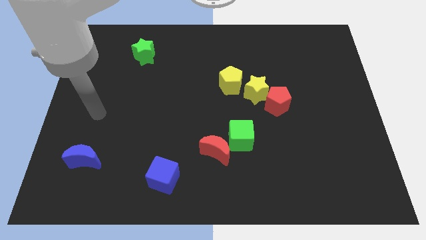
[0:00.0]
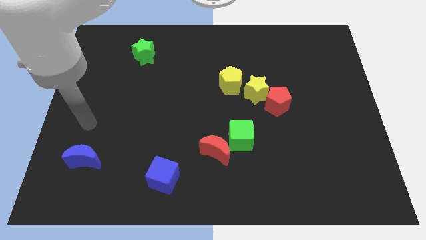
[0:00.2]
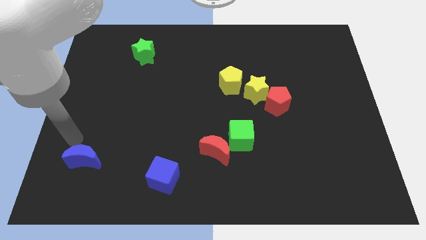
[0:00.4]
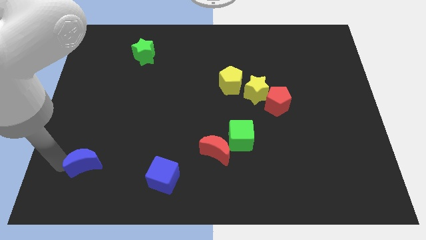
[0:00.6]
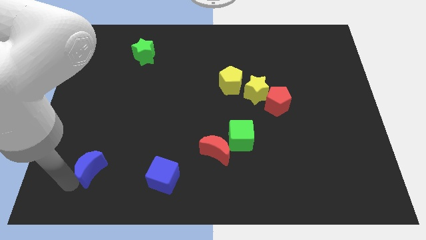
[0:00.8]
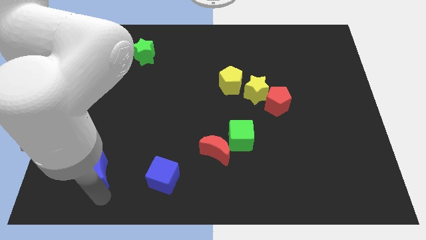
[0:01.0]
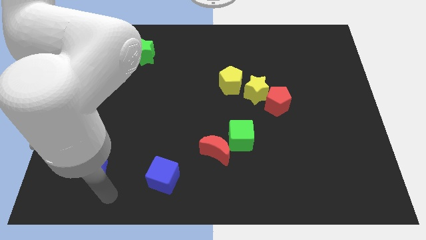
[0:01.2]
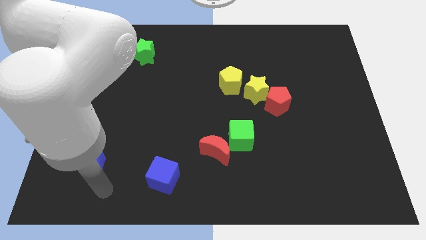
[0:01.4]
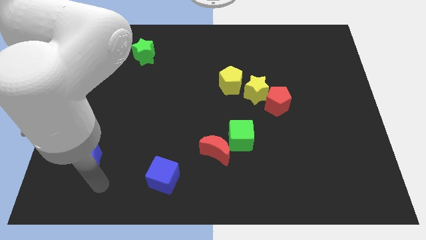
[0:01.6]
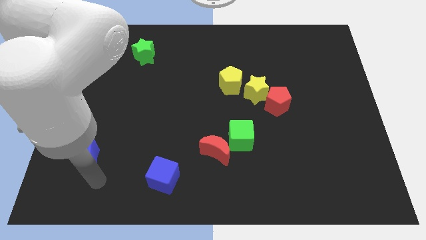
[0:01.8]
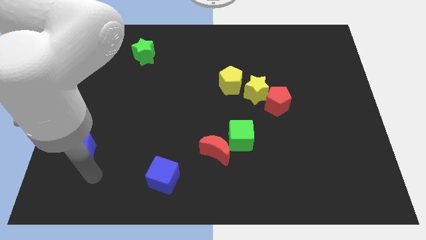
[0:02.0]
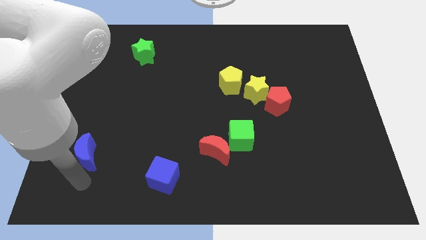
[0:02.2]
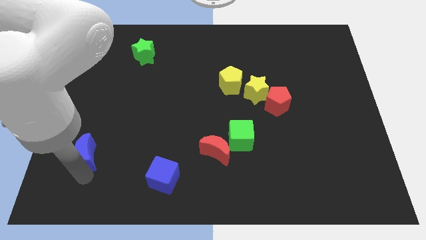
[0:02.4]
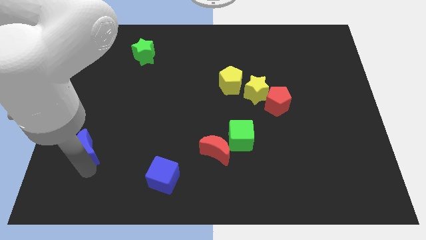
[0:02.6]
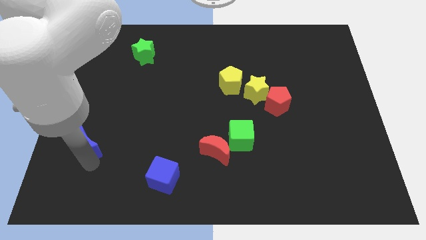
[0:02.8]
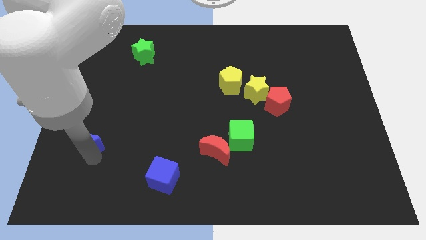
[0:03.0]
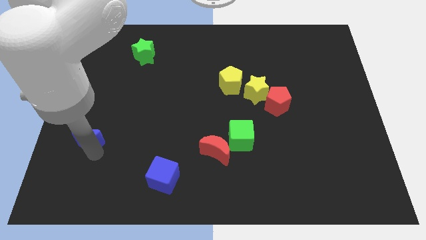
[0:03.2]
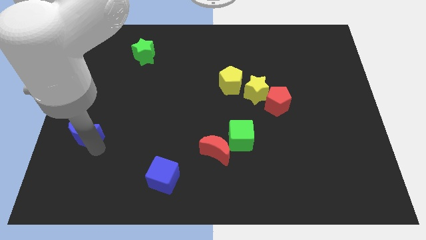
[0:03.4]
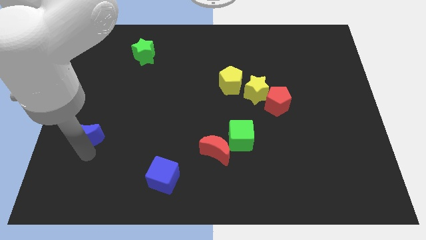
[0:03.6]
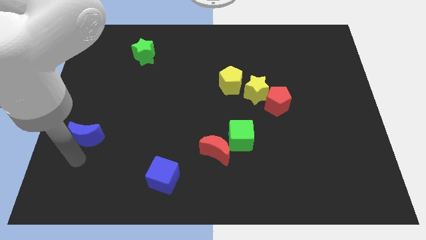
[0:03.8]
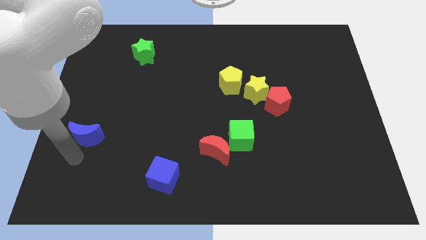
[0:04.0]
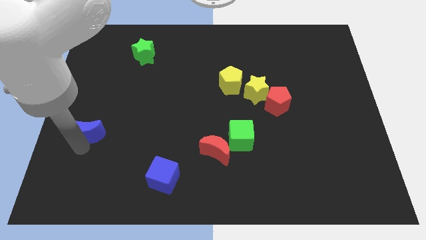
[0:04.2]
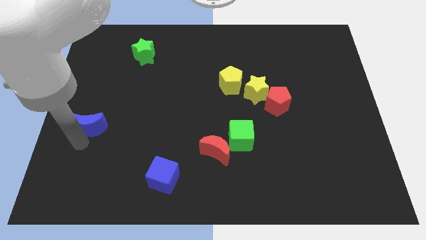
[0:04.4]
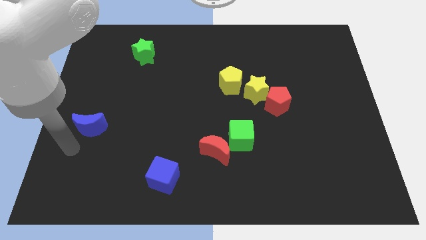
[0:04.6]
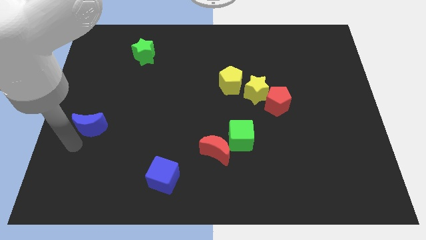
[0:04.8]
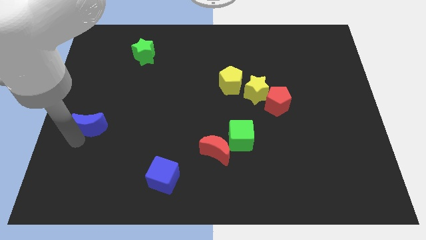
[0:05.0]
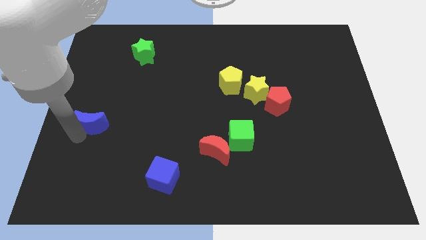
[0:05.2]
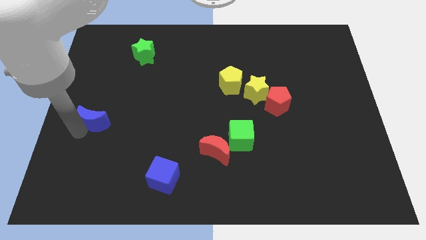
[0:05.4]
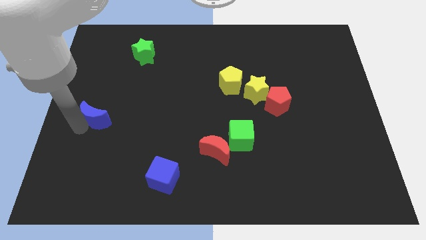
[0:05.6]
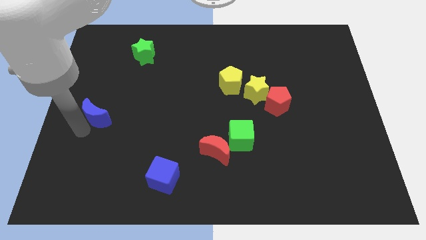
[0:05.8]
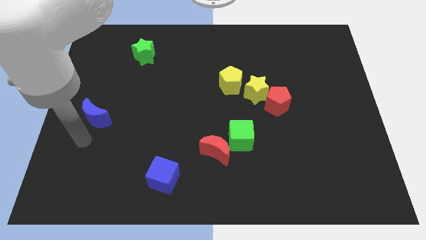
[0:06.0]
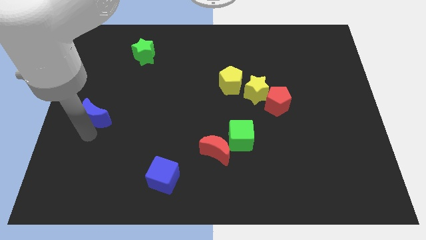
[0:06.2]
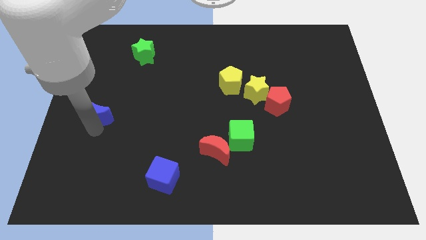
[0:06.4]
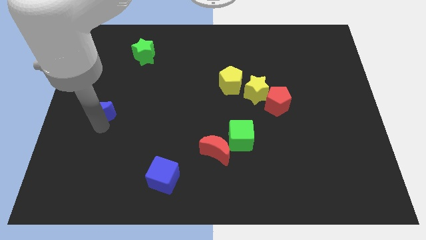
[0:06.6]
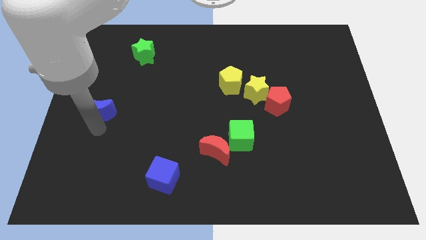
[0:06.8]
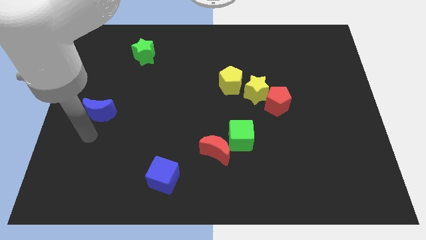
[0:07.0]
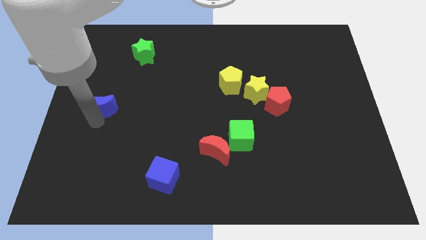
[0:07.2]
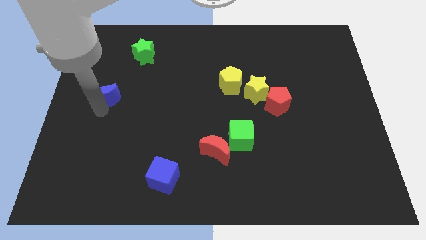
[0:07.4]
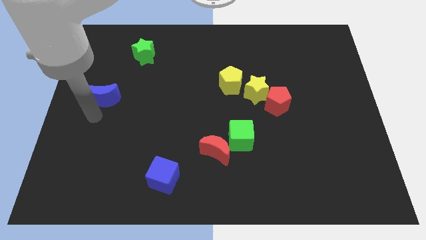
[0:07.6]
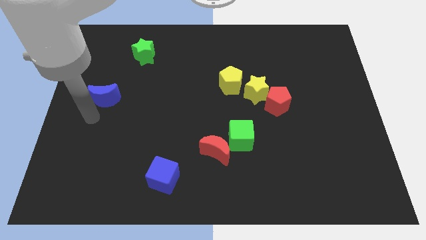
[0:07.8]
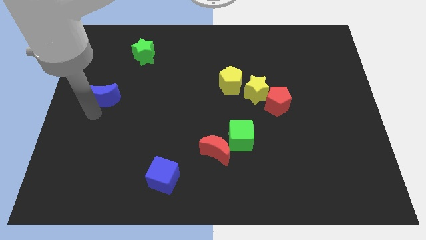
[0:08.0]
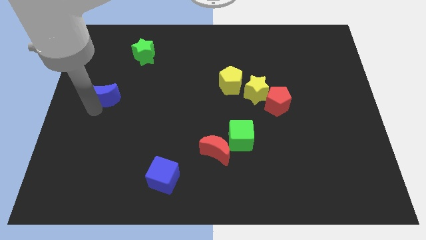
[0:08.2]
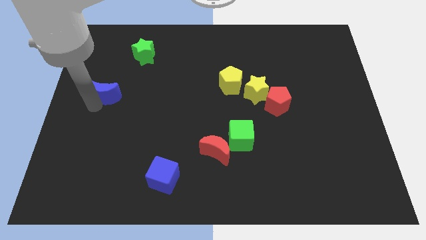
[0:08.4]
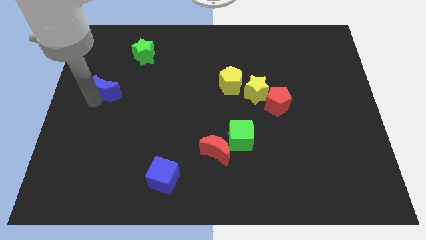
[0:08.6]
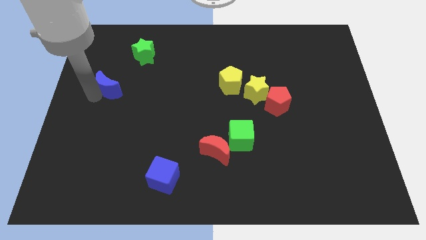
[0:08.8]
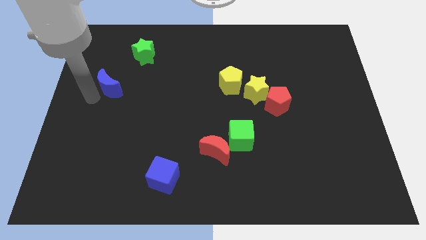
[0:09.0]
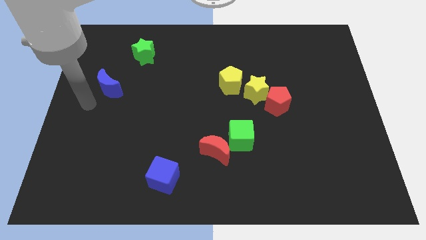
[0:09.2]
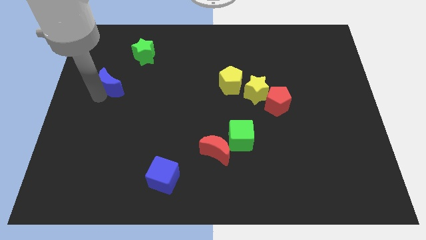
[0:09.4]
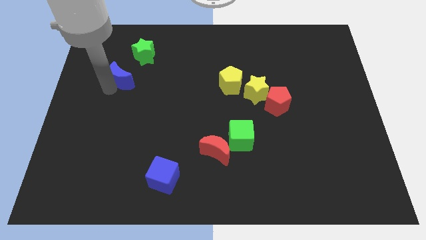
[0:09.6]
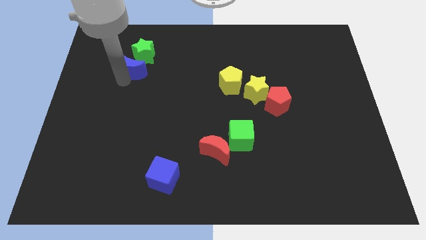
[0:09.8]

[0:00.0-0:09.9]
move the blue moon towards the green star

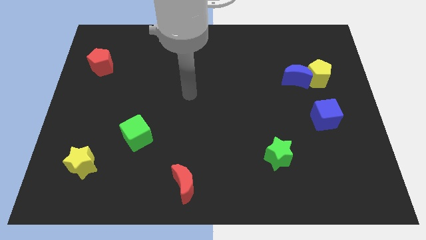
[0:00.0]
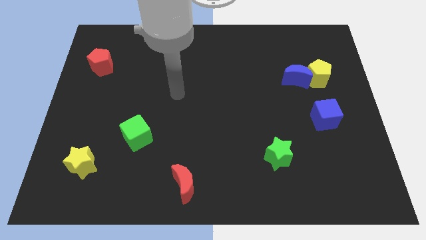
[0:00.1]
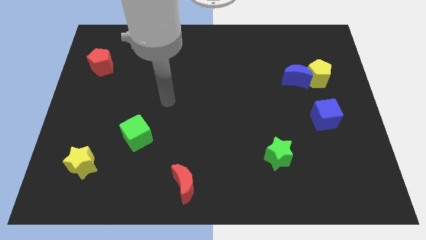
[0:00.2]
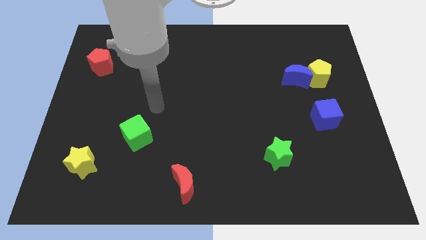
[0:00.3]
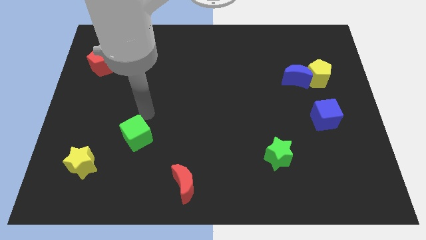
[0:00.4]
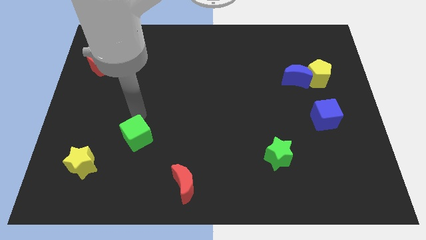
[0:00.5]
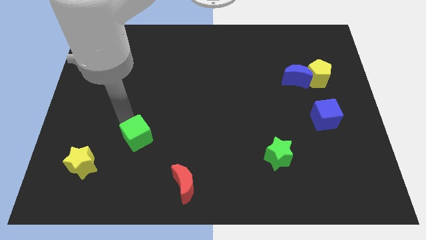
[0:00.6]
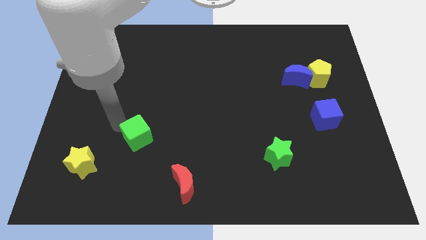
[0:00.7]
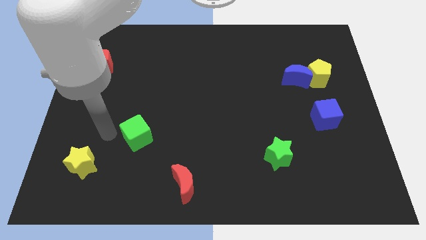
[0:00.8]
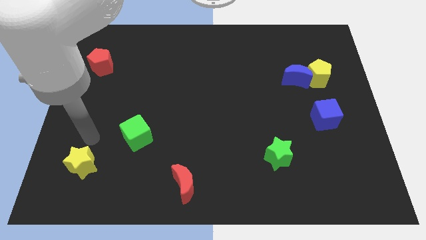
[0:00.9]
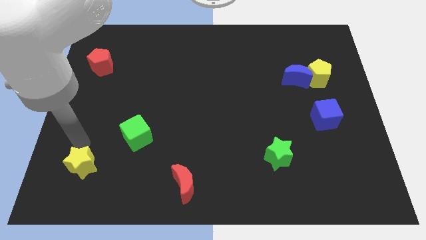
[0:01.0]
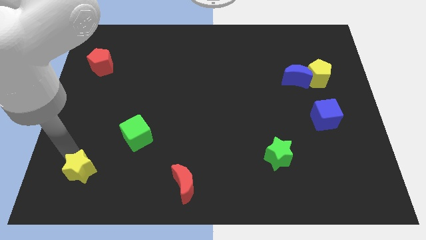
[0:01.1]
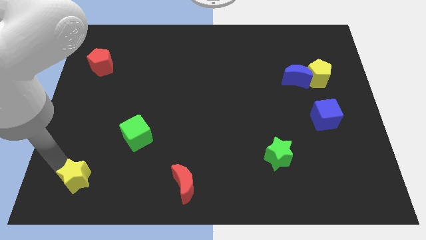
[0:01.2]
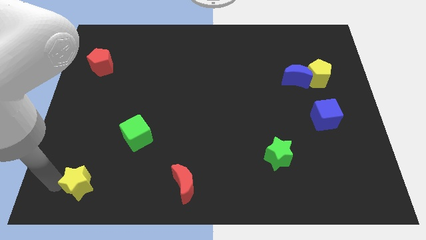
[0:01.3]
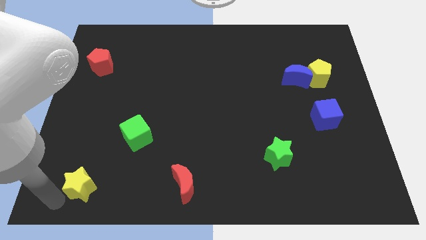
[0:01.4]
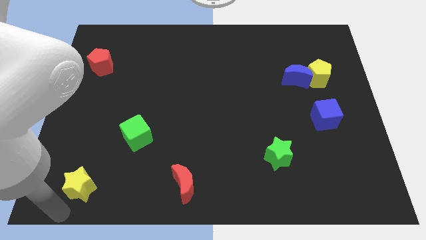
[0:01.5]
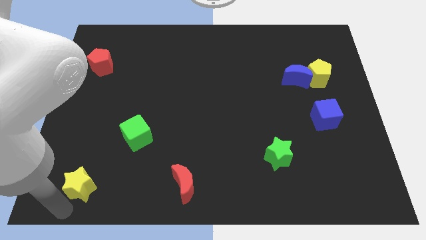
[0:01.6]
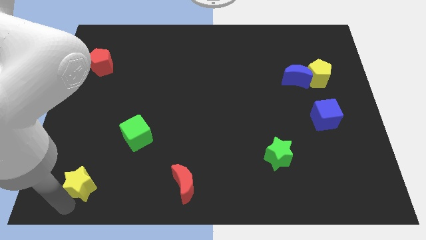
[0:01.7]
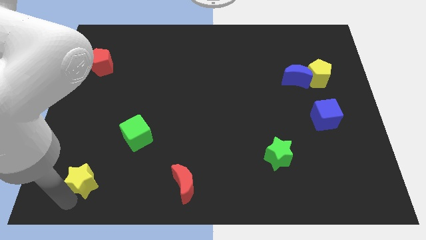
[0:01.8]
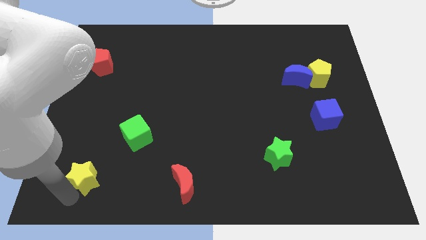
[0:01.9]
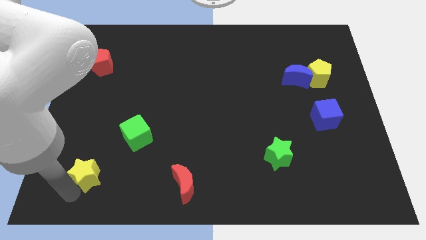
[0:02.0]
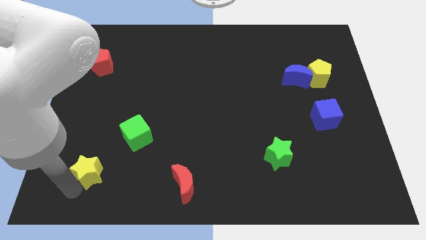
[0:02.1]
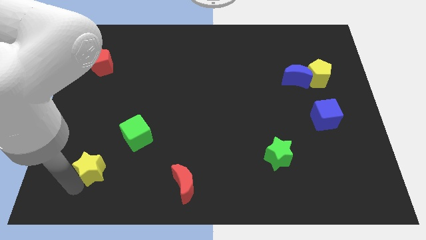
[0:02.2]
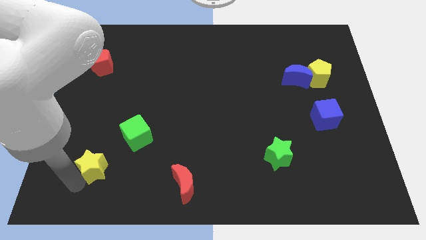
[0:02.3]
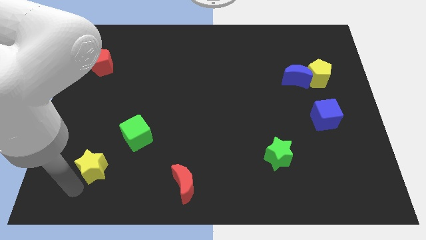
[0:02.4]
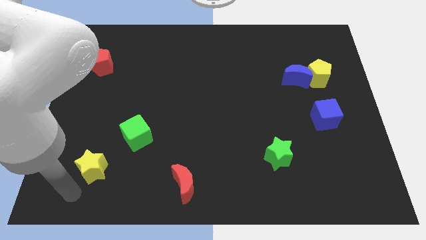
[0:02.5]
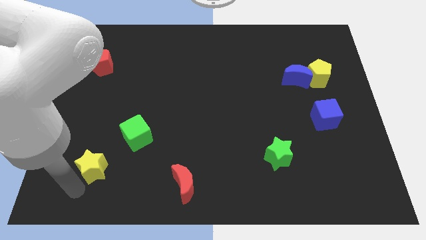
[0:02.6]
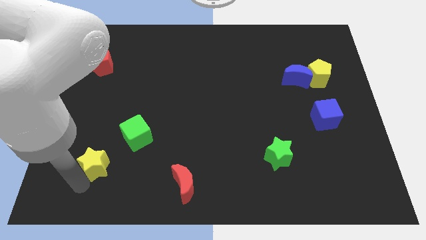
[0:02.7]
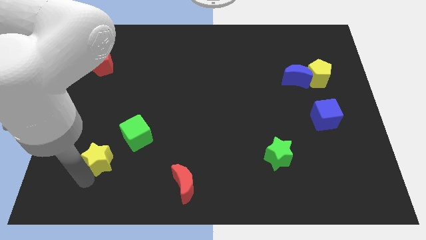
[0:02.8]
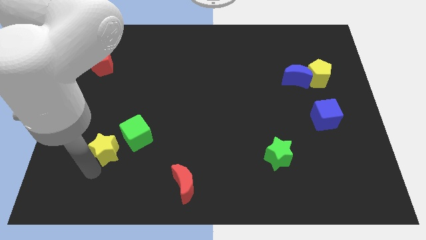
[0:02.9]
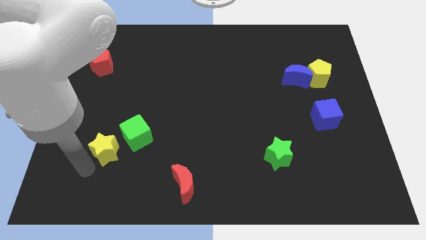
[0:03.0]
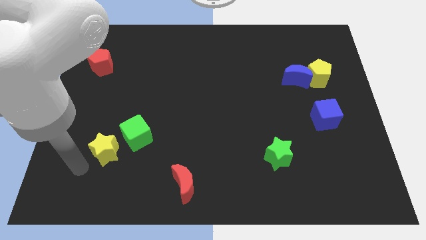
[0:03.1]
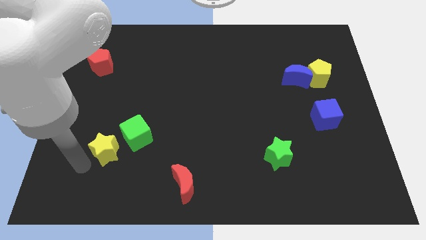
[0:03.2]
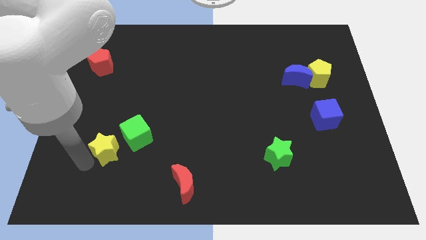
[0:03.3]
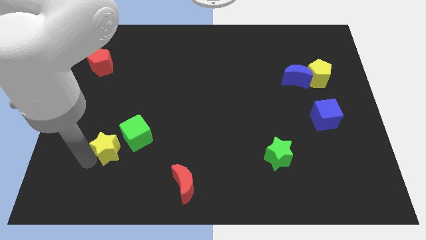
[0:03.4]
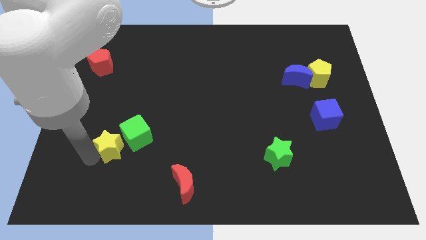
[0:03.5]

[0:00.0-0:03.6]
move the yellow star next to the green cube
